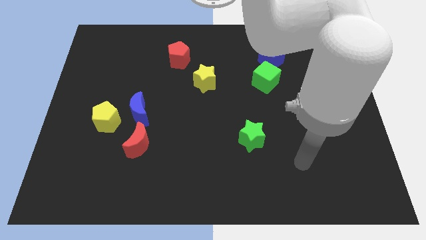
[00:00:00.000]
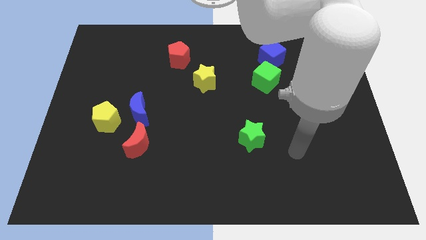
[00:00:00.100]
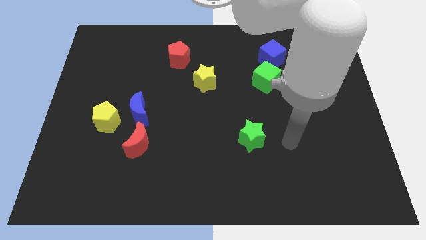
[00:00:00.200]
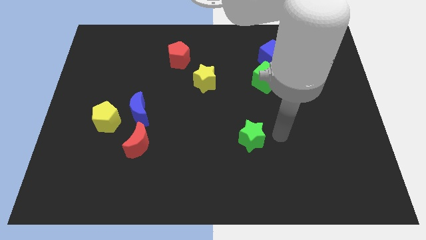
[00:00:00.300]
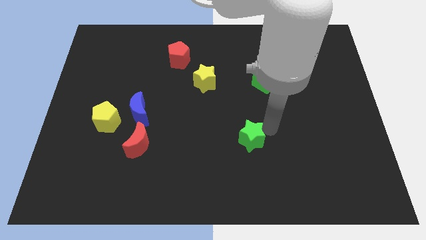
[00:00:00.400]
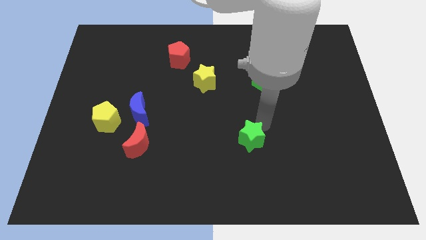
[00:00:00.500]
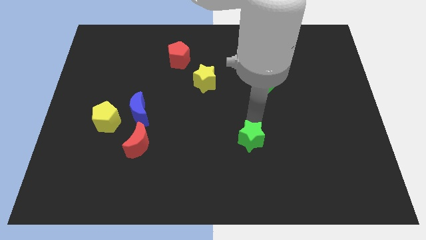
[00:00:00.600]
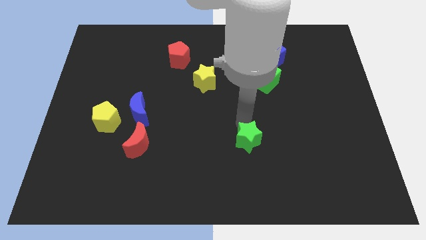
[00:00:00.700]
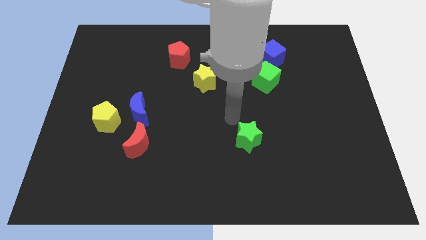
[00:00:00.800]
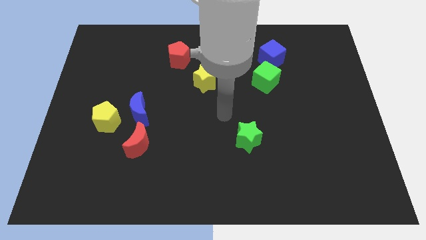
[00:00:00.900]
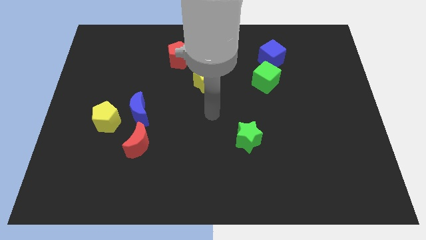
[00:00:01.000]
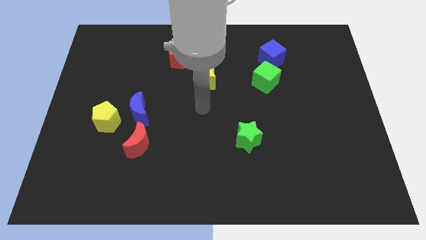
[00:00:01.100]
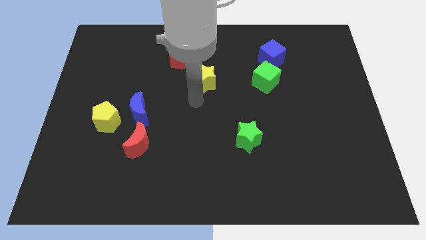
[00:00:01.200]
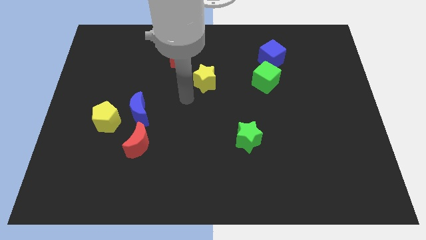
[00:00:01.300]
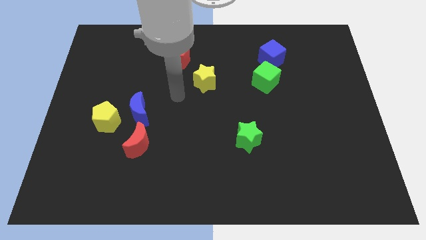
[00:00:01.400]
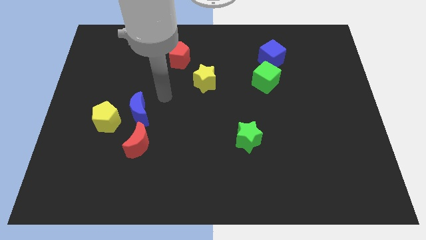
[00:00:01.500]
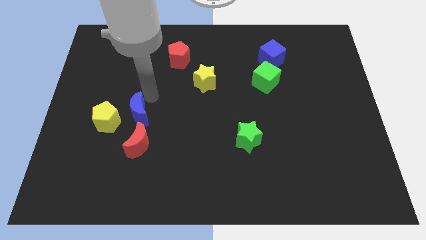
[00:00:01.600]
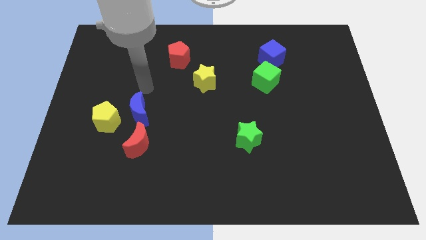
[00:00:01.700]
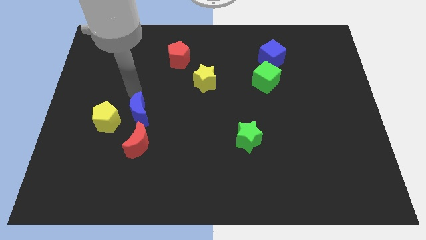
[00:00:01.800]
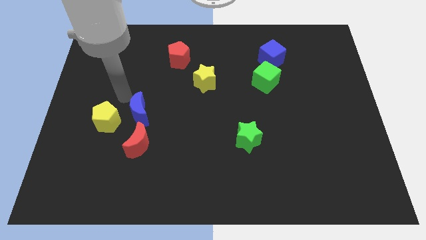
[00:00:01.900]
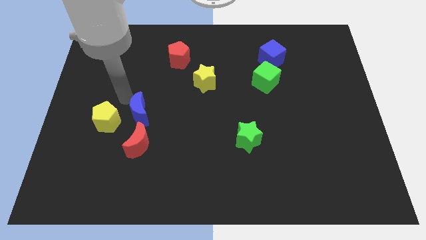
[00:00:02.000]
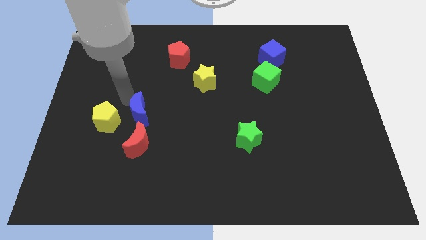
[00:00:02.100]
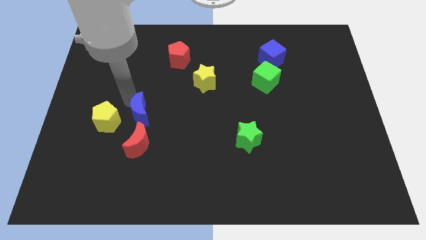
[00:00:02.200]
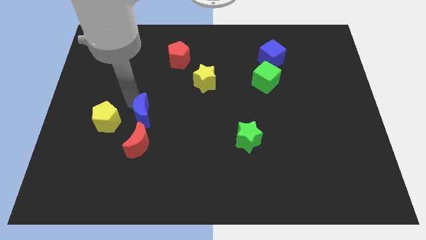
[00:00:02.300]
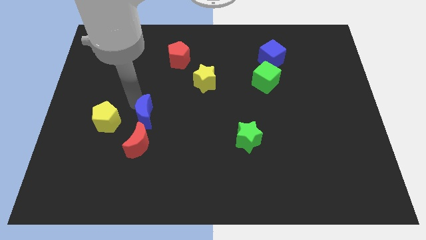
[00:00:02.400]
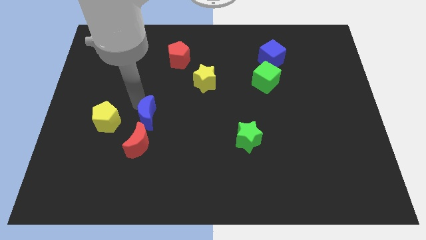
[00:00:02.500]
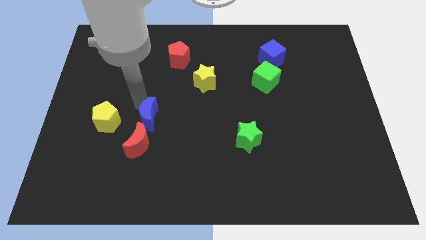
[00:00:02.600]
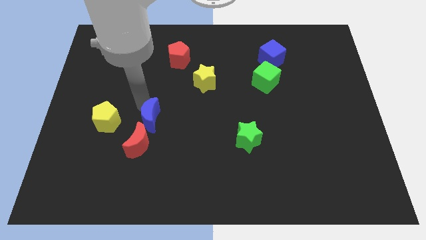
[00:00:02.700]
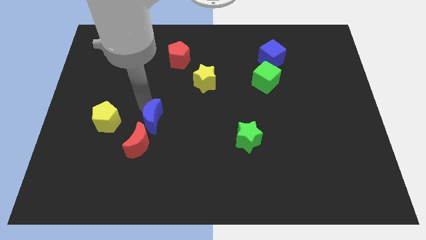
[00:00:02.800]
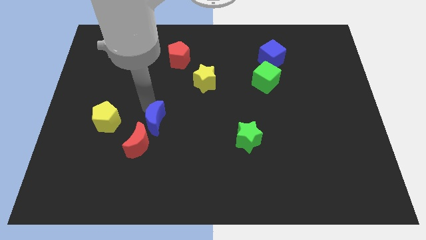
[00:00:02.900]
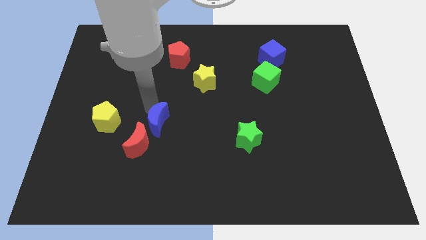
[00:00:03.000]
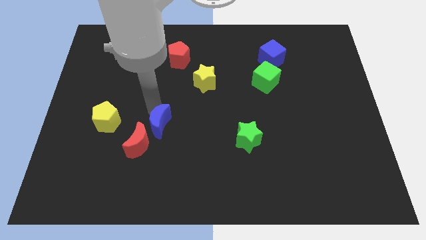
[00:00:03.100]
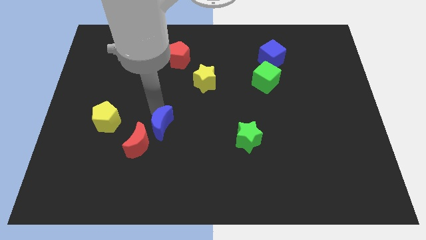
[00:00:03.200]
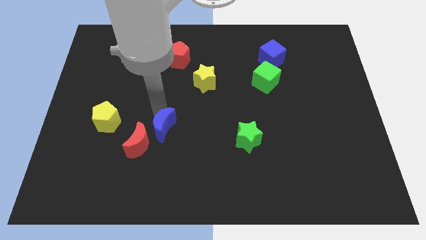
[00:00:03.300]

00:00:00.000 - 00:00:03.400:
slightly slide the blue moon downwards and to the right

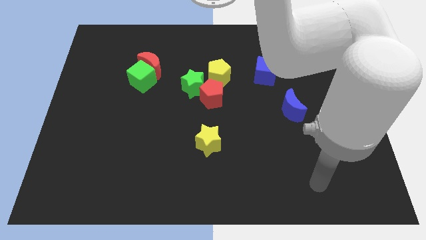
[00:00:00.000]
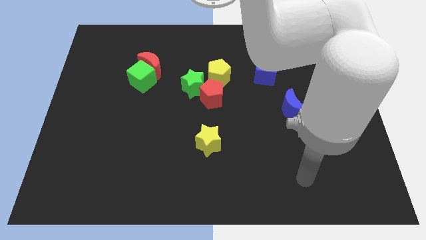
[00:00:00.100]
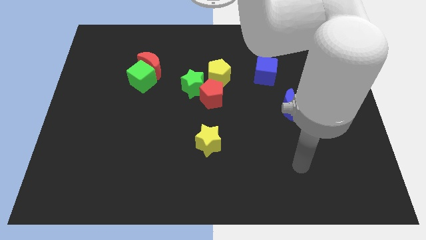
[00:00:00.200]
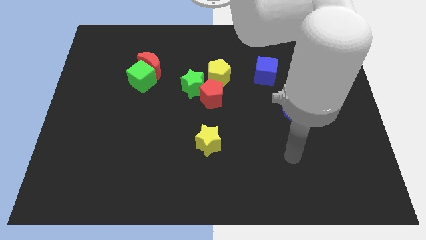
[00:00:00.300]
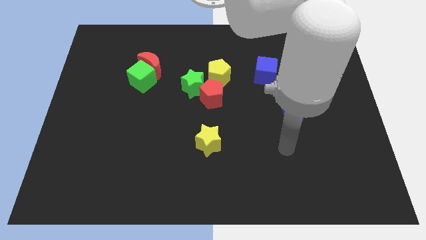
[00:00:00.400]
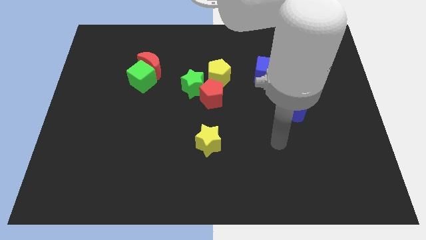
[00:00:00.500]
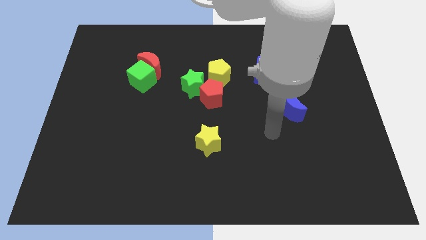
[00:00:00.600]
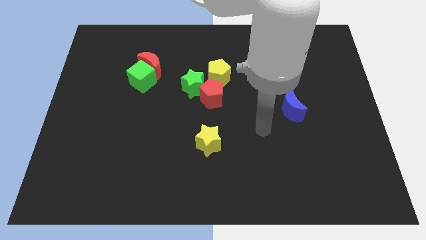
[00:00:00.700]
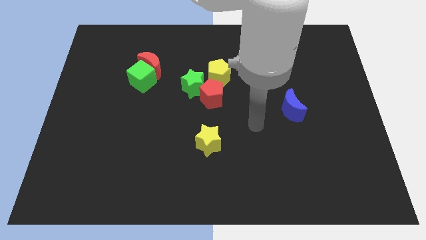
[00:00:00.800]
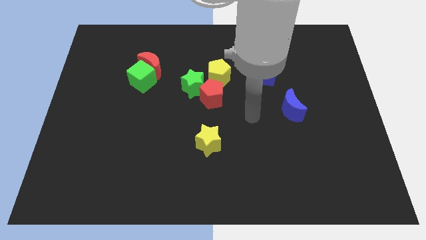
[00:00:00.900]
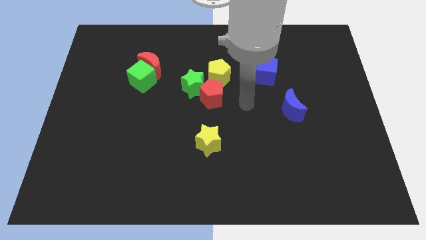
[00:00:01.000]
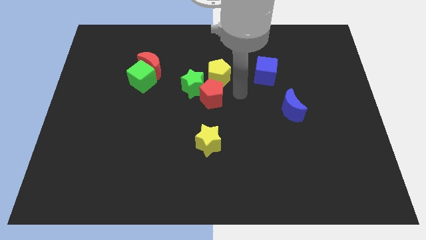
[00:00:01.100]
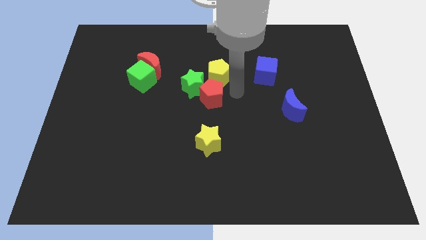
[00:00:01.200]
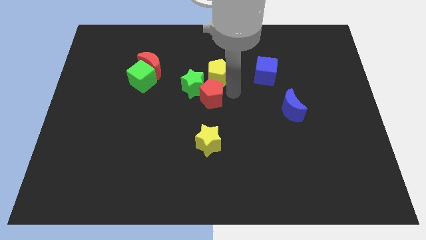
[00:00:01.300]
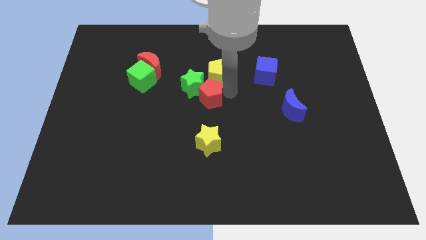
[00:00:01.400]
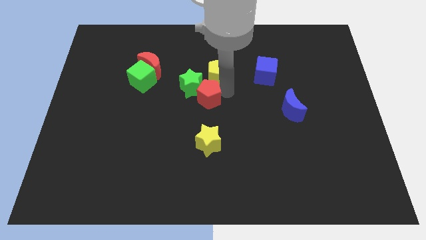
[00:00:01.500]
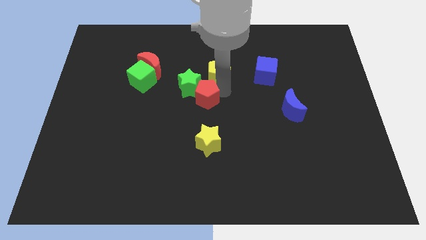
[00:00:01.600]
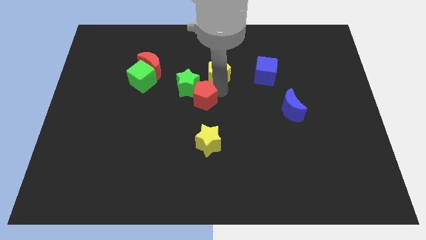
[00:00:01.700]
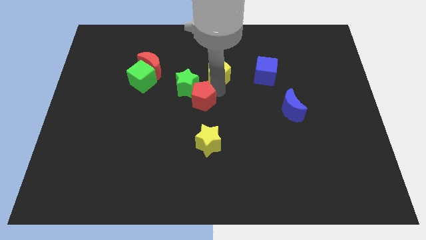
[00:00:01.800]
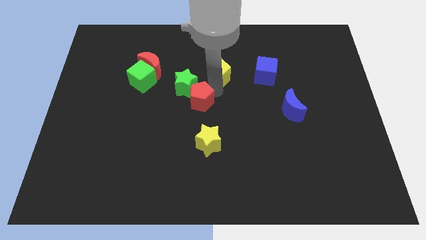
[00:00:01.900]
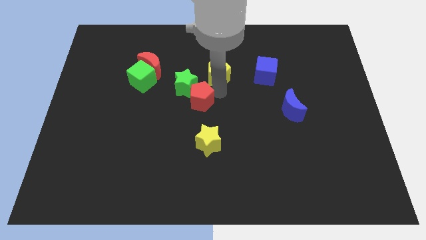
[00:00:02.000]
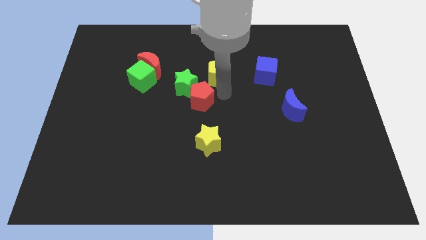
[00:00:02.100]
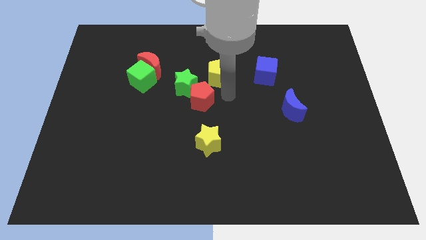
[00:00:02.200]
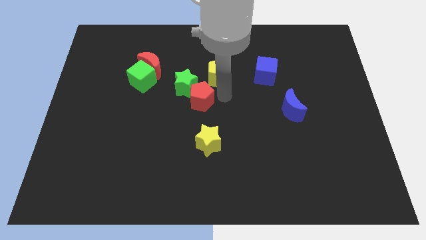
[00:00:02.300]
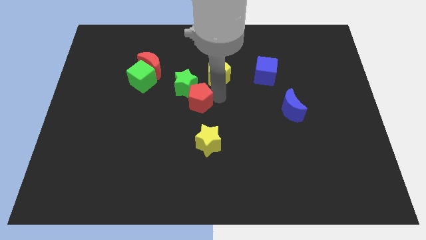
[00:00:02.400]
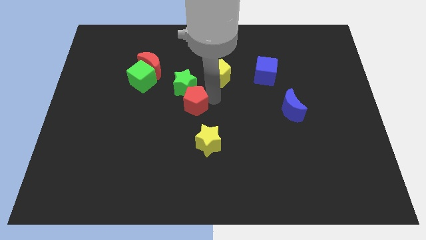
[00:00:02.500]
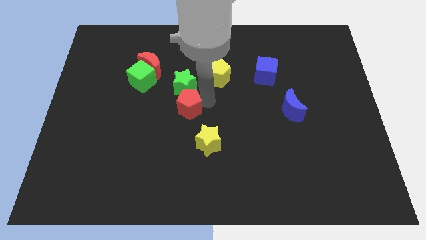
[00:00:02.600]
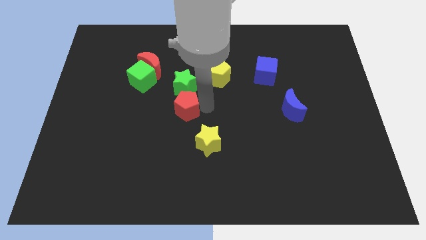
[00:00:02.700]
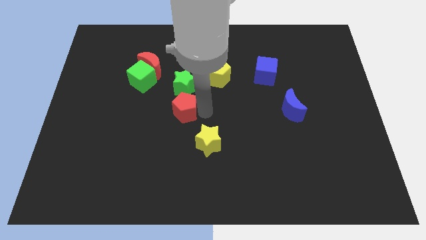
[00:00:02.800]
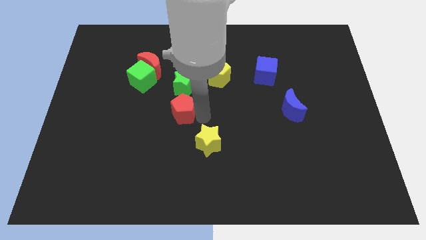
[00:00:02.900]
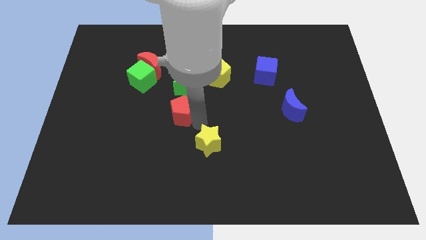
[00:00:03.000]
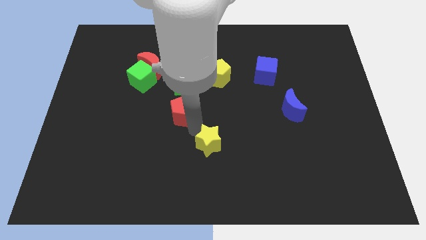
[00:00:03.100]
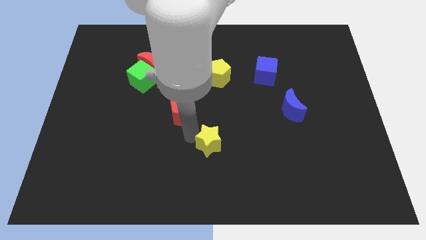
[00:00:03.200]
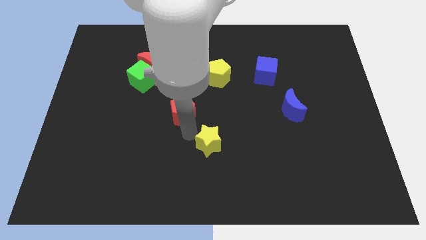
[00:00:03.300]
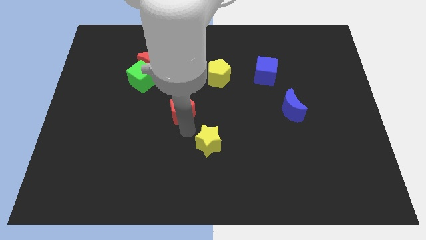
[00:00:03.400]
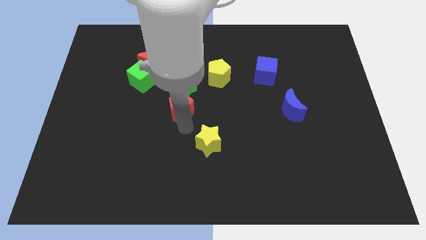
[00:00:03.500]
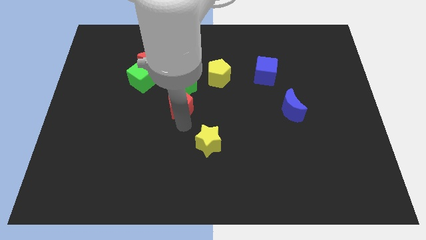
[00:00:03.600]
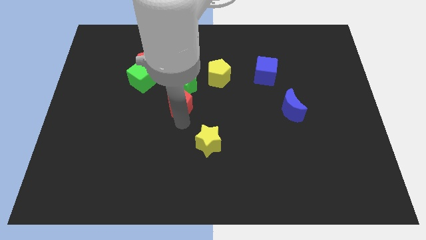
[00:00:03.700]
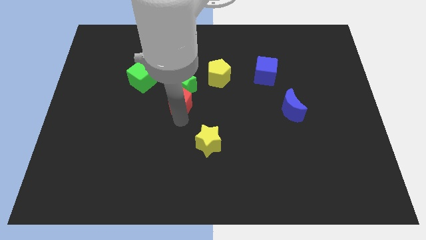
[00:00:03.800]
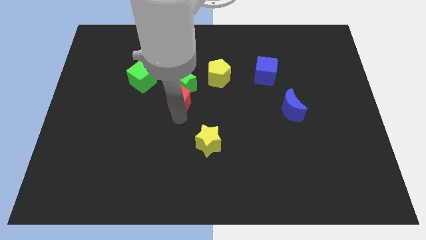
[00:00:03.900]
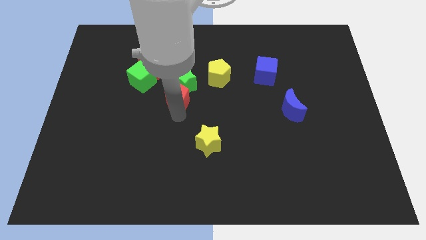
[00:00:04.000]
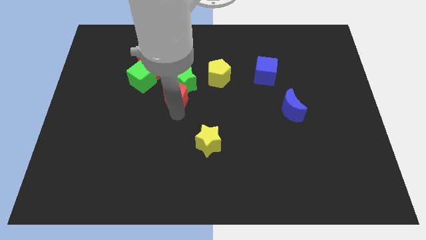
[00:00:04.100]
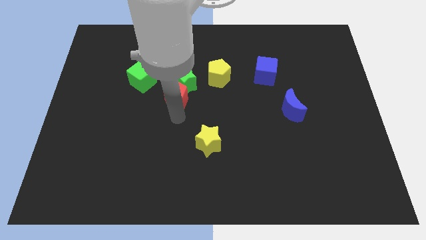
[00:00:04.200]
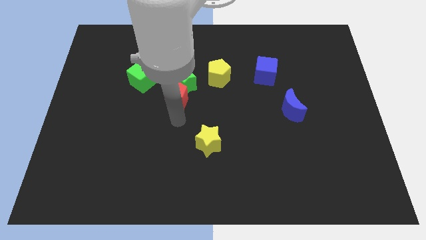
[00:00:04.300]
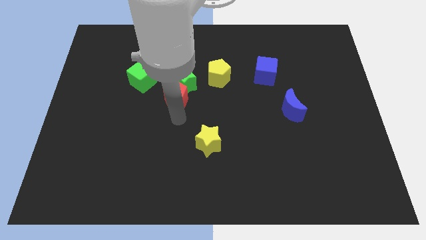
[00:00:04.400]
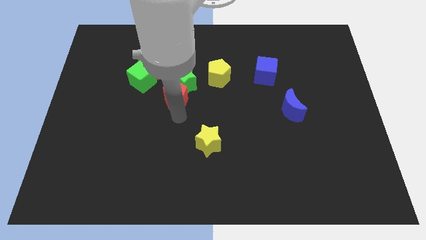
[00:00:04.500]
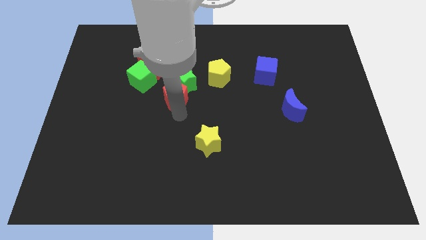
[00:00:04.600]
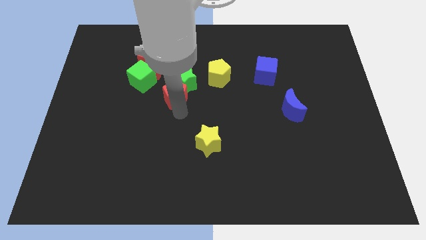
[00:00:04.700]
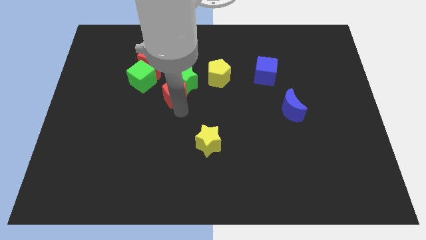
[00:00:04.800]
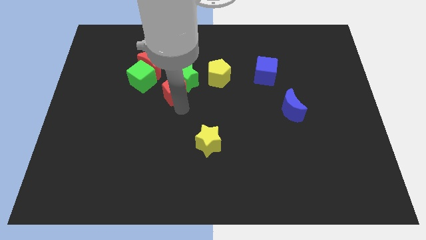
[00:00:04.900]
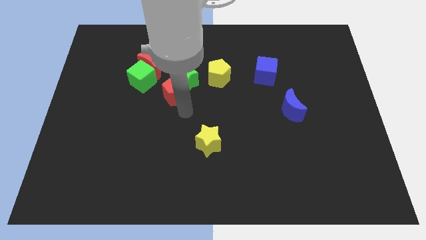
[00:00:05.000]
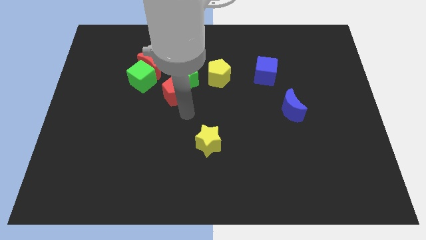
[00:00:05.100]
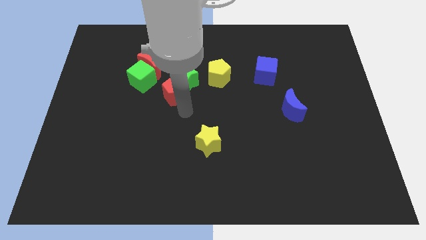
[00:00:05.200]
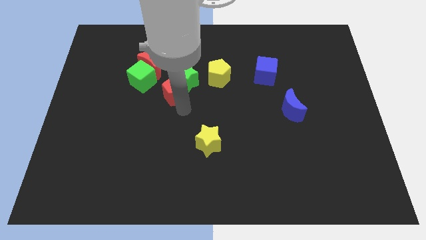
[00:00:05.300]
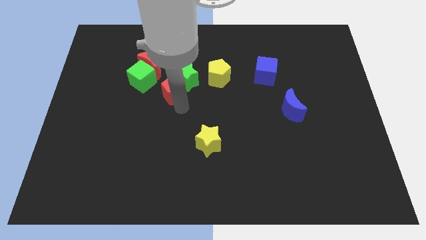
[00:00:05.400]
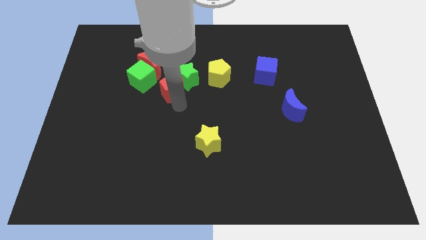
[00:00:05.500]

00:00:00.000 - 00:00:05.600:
slightly slide the red pentagon upwards and to the left
